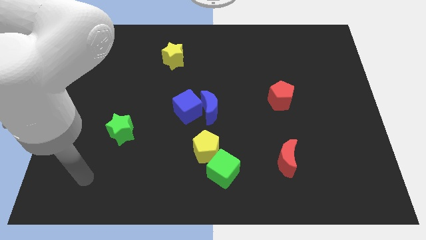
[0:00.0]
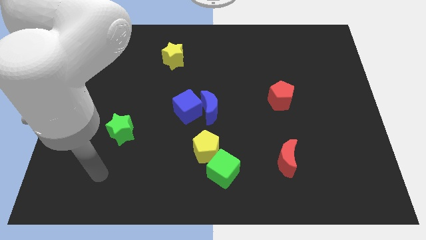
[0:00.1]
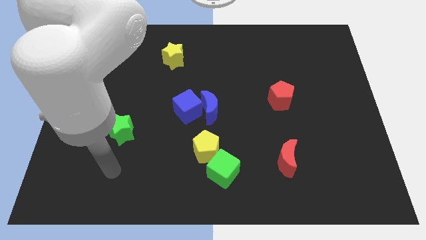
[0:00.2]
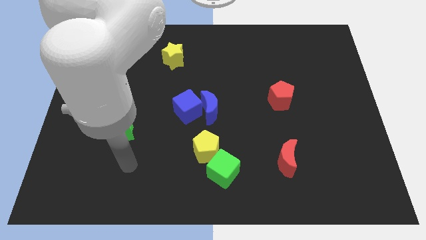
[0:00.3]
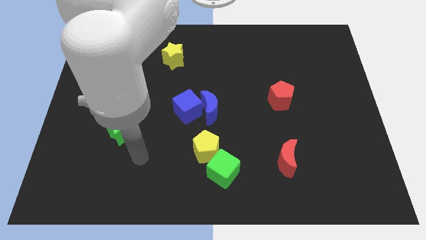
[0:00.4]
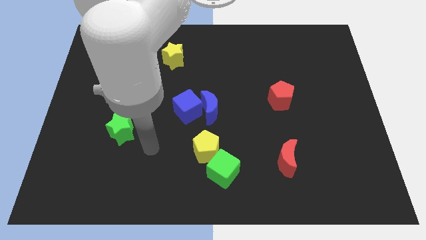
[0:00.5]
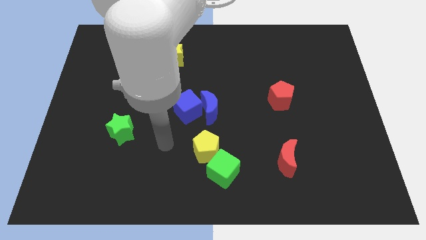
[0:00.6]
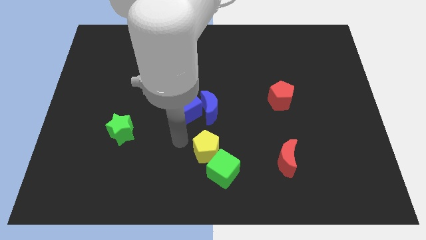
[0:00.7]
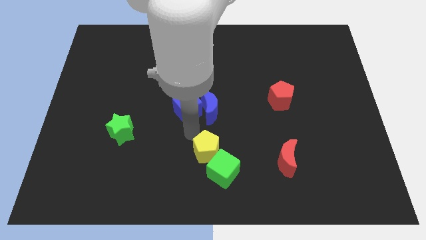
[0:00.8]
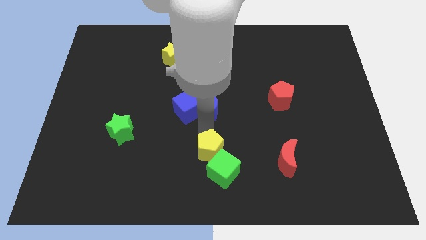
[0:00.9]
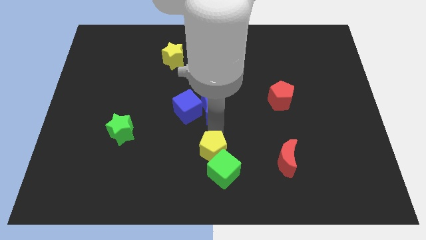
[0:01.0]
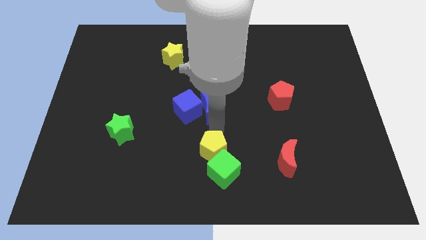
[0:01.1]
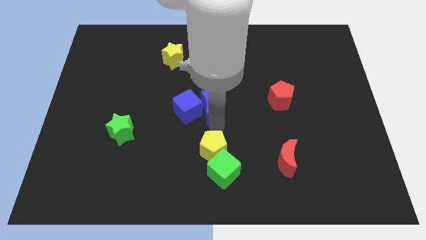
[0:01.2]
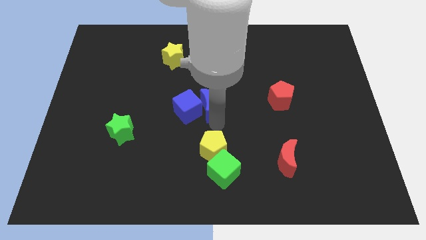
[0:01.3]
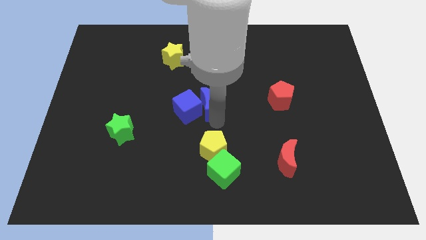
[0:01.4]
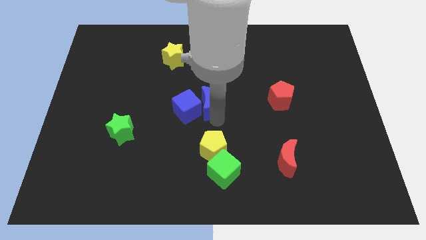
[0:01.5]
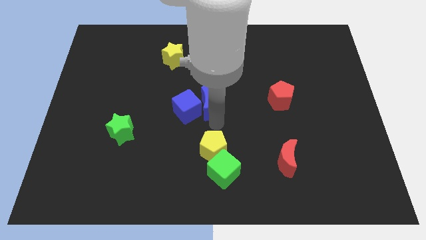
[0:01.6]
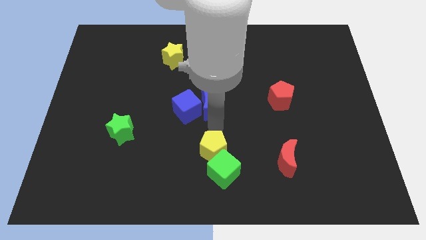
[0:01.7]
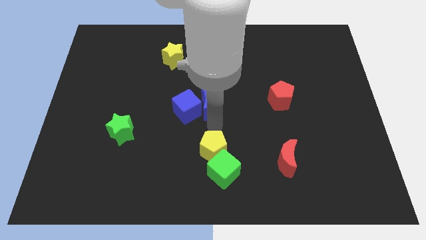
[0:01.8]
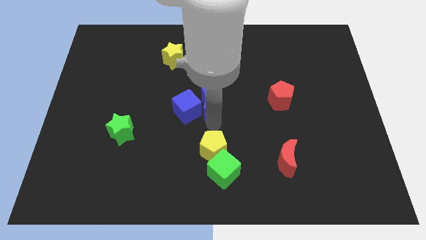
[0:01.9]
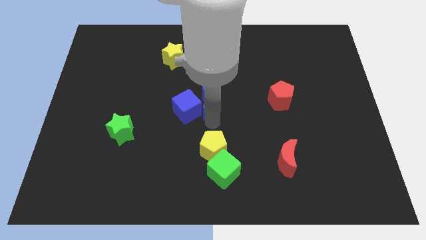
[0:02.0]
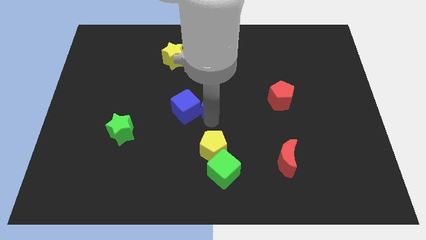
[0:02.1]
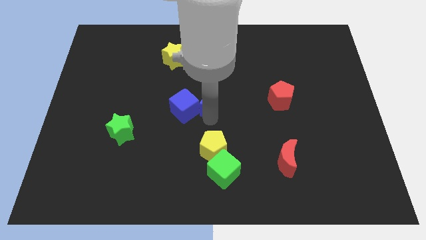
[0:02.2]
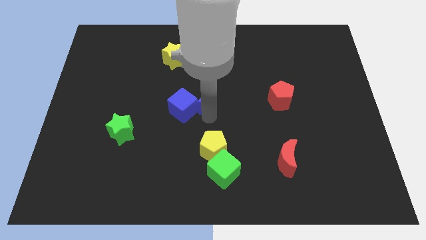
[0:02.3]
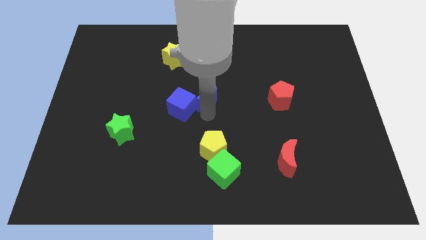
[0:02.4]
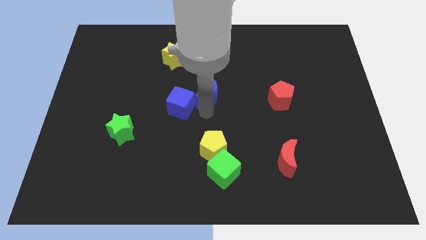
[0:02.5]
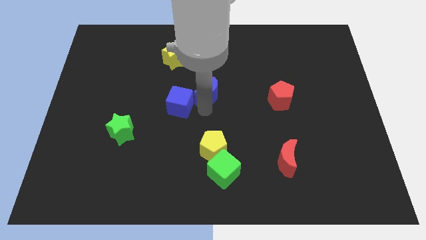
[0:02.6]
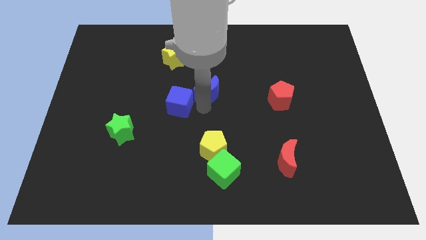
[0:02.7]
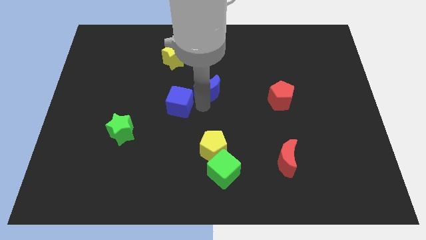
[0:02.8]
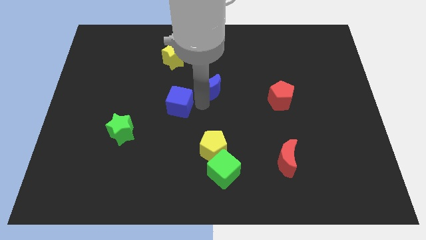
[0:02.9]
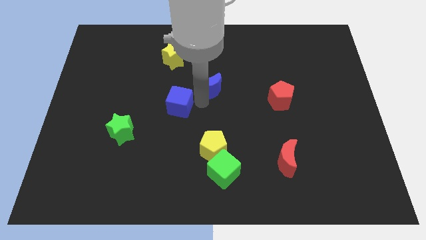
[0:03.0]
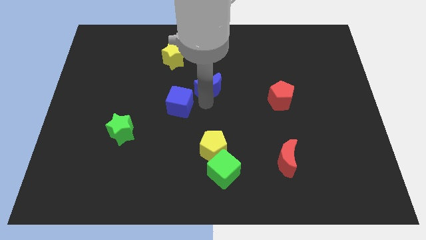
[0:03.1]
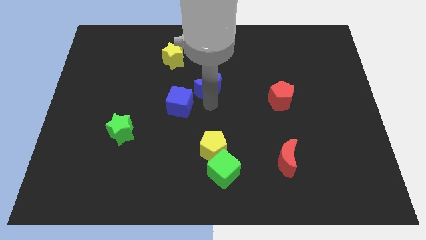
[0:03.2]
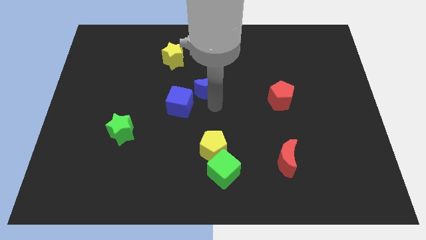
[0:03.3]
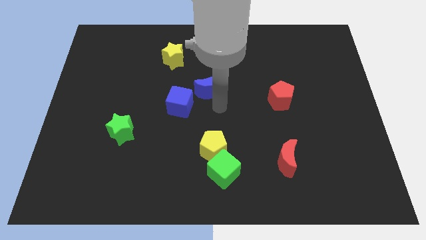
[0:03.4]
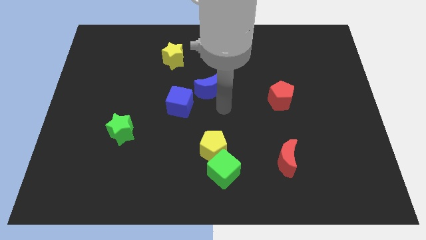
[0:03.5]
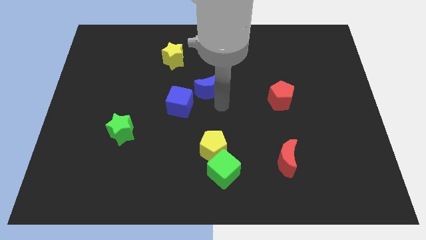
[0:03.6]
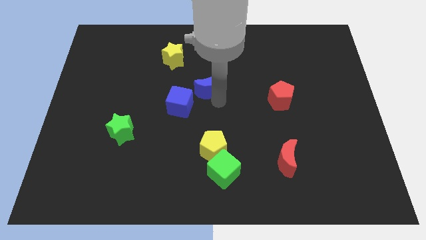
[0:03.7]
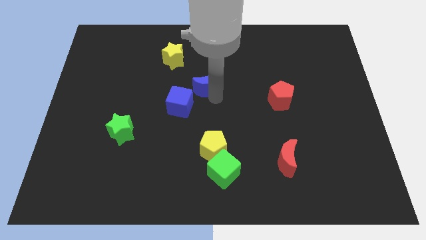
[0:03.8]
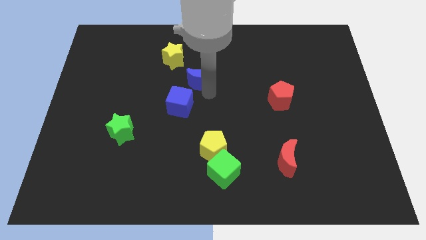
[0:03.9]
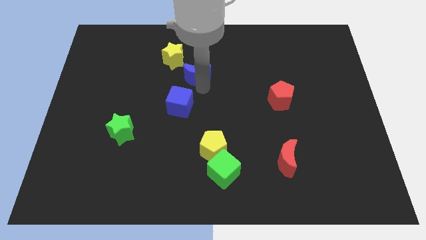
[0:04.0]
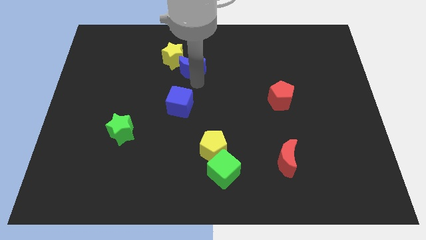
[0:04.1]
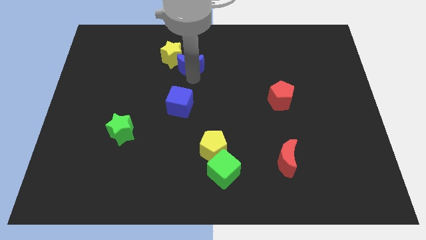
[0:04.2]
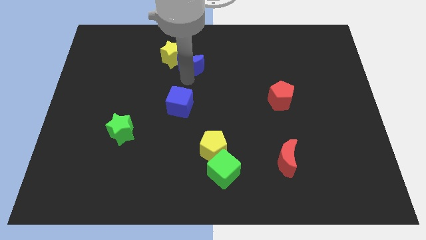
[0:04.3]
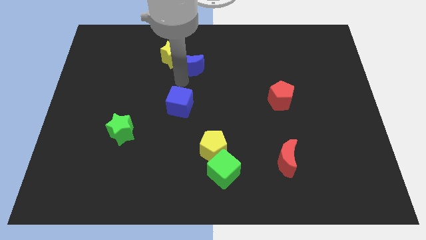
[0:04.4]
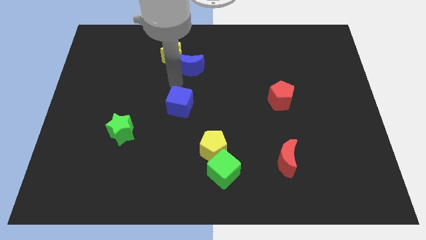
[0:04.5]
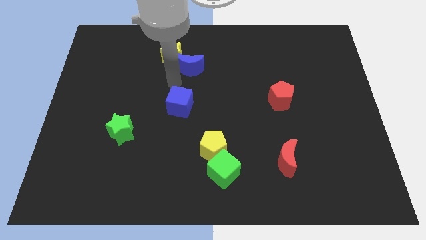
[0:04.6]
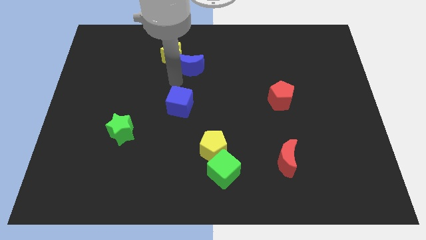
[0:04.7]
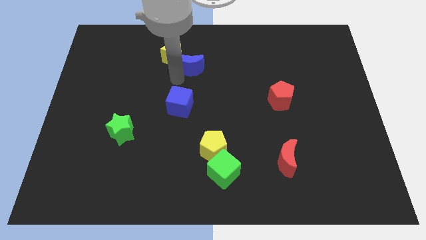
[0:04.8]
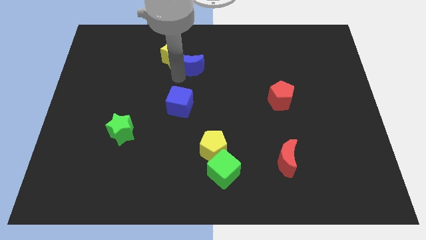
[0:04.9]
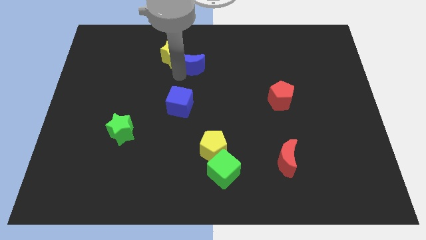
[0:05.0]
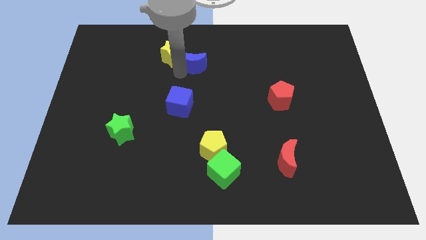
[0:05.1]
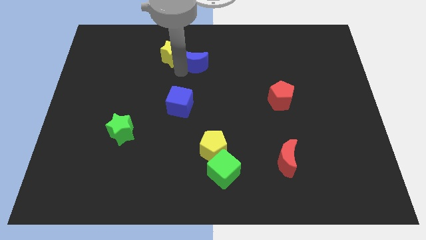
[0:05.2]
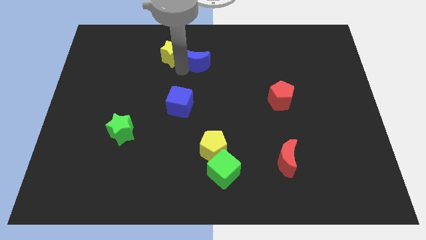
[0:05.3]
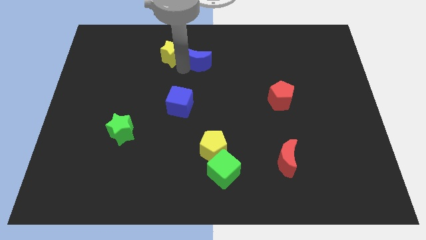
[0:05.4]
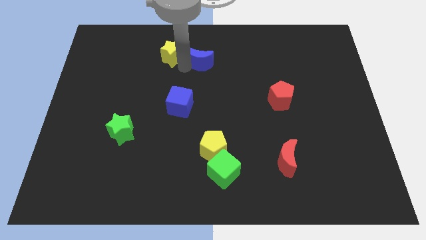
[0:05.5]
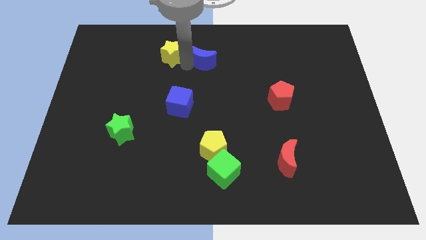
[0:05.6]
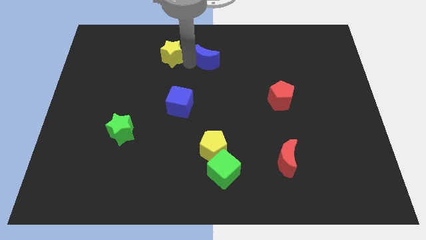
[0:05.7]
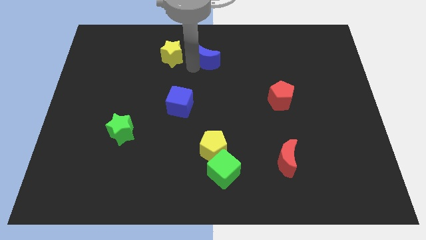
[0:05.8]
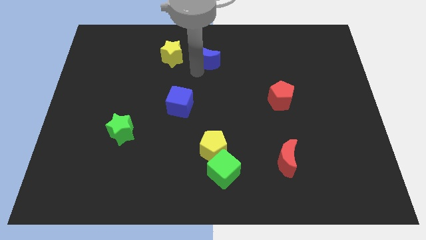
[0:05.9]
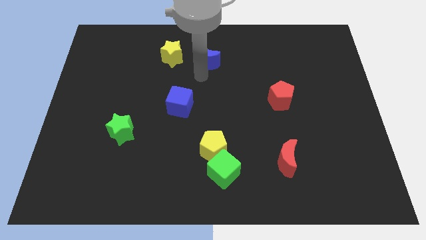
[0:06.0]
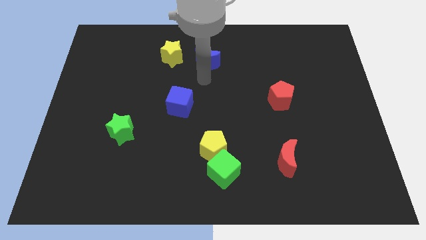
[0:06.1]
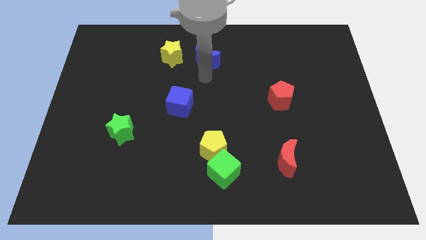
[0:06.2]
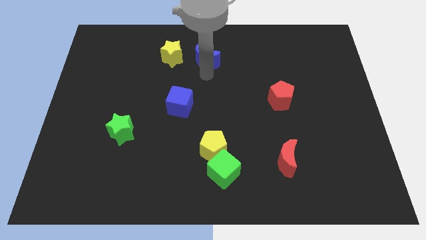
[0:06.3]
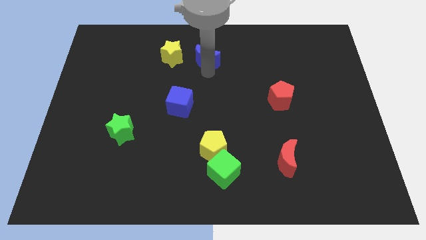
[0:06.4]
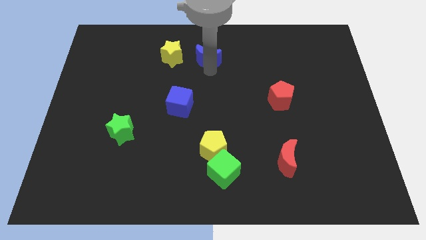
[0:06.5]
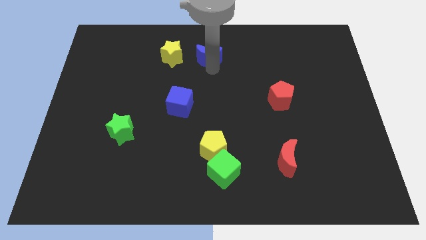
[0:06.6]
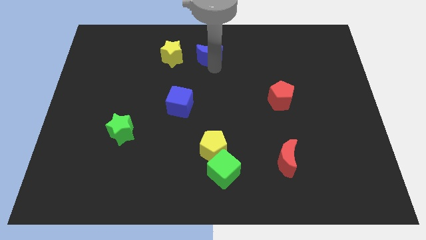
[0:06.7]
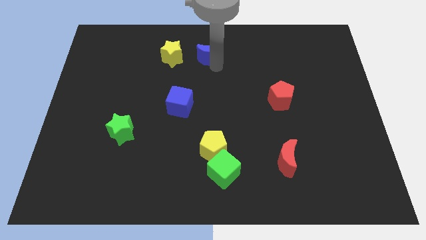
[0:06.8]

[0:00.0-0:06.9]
push the blue moon to the towards your base

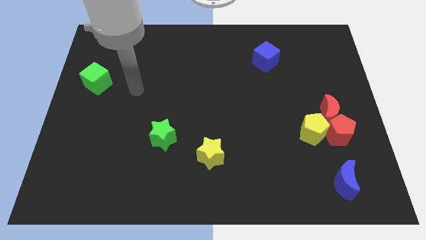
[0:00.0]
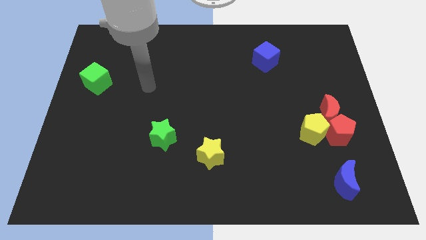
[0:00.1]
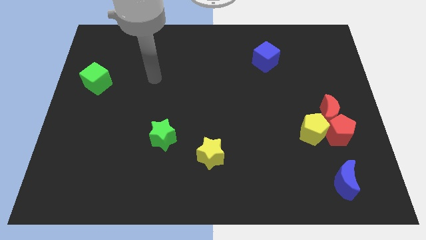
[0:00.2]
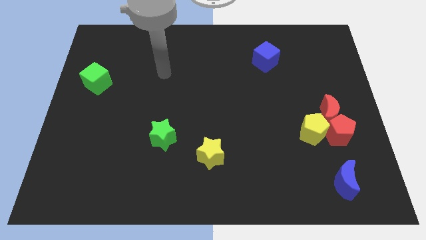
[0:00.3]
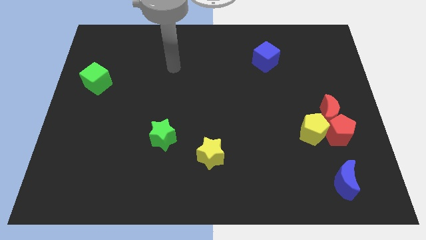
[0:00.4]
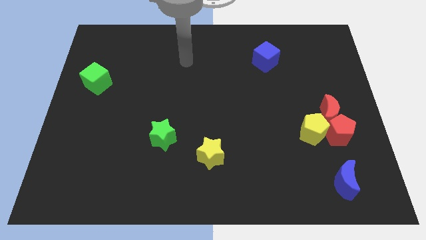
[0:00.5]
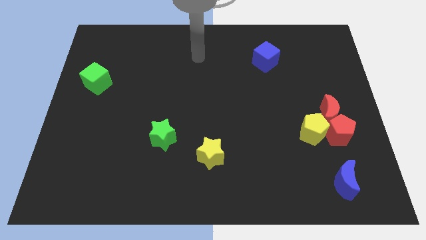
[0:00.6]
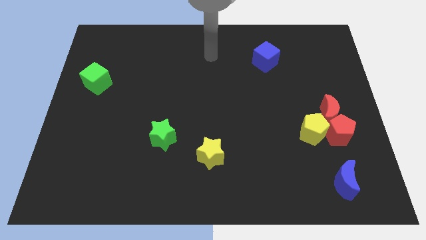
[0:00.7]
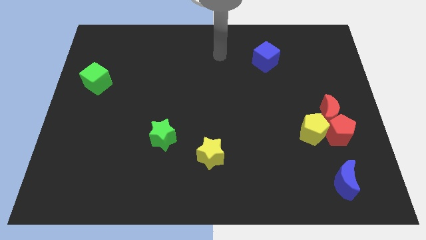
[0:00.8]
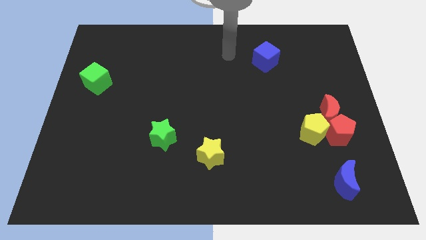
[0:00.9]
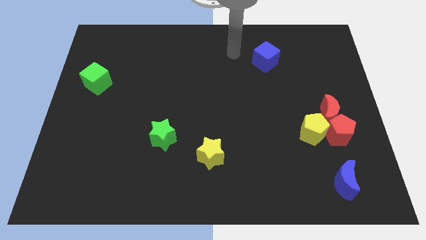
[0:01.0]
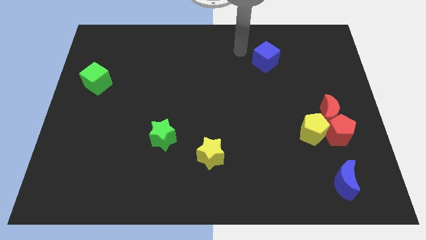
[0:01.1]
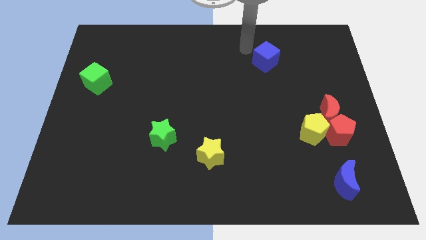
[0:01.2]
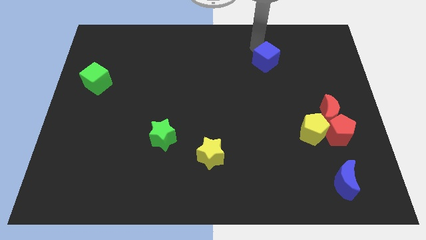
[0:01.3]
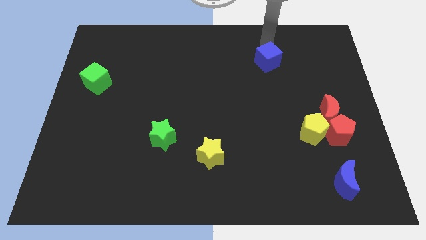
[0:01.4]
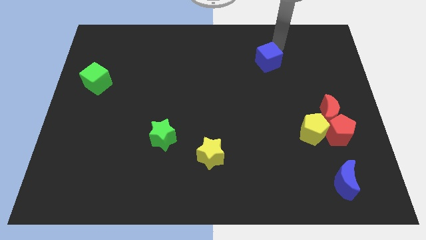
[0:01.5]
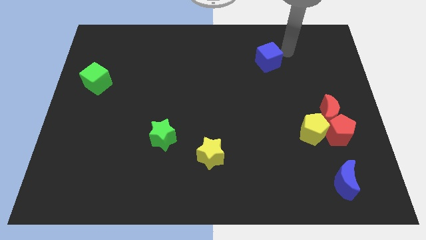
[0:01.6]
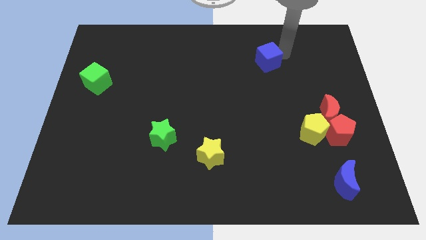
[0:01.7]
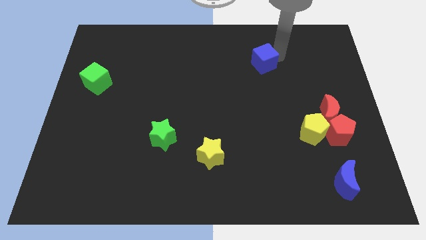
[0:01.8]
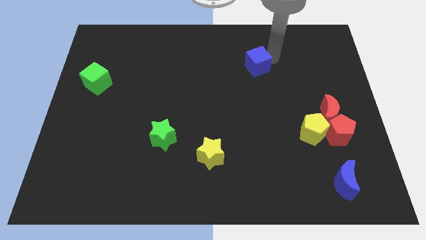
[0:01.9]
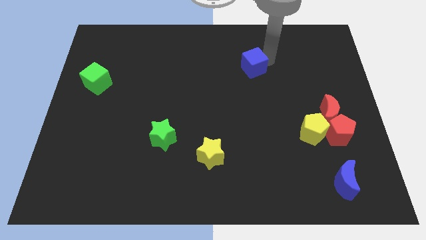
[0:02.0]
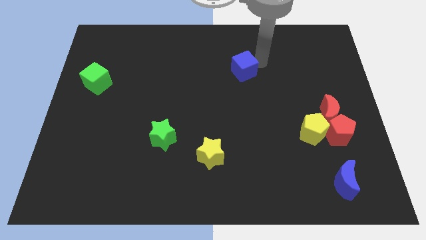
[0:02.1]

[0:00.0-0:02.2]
slide the blue cube to the center of the board
